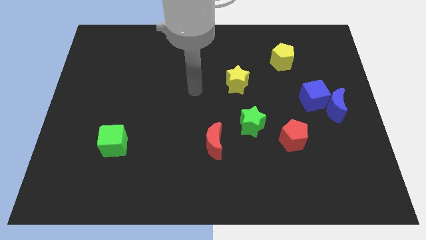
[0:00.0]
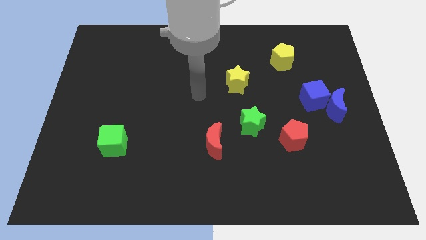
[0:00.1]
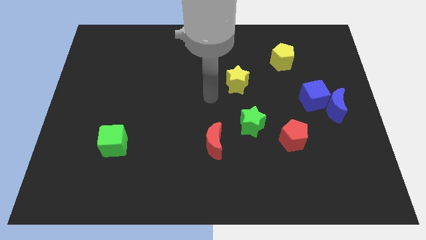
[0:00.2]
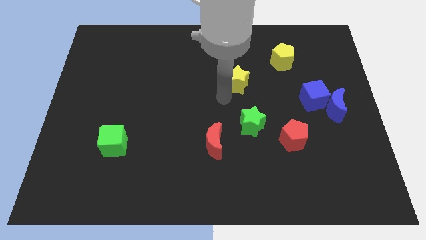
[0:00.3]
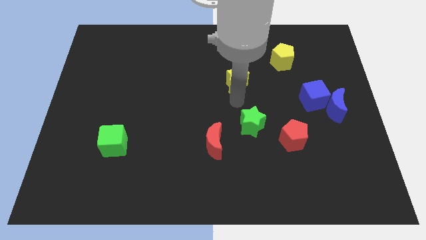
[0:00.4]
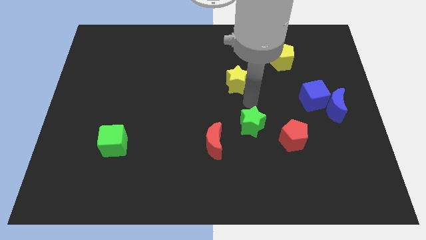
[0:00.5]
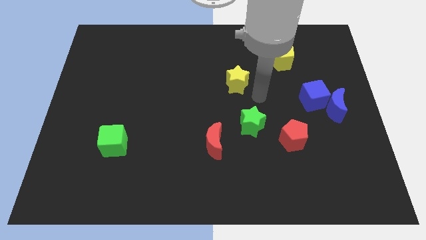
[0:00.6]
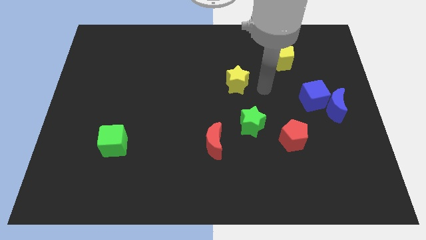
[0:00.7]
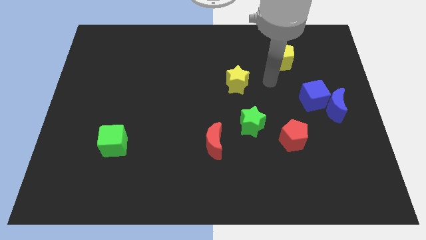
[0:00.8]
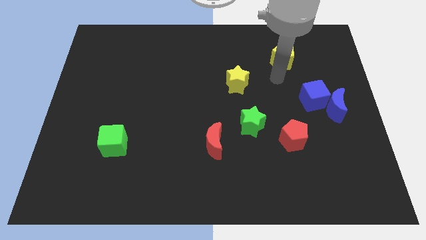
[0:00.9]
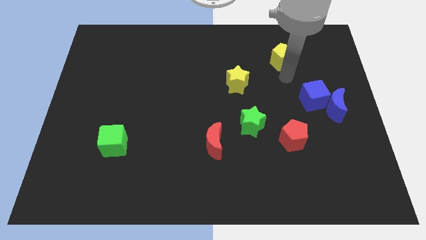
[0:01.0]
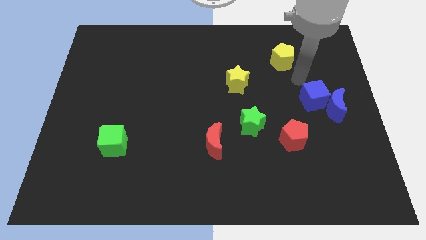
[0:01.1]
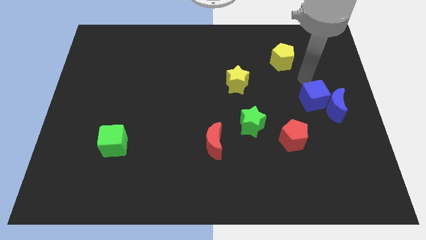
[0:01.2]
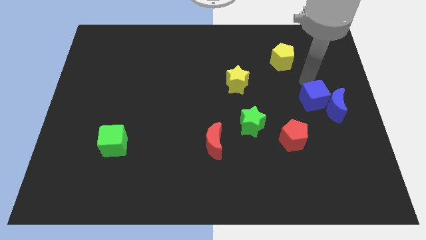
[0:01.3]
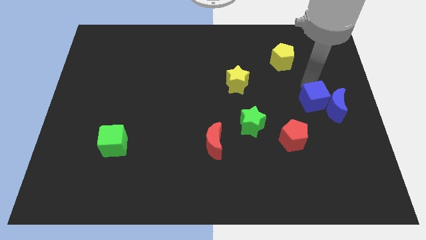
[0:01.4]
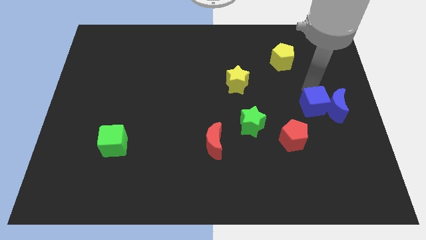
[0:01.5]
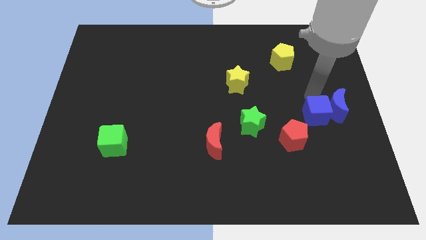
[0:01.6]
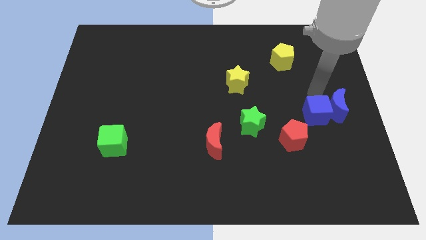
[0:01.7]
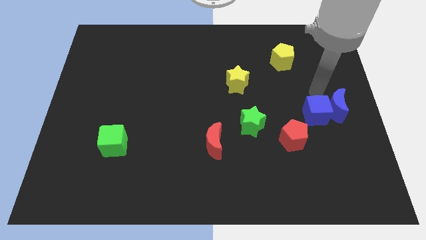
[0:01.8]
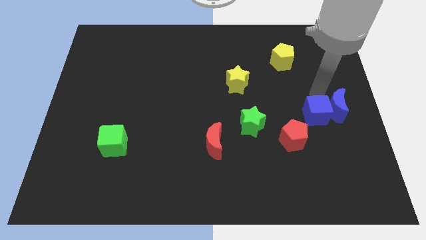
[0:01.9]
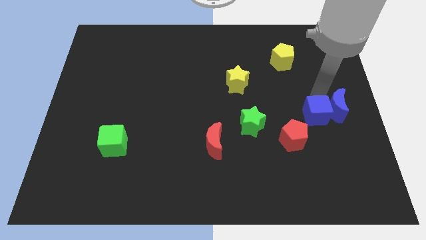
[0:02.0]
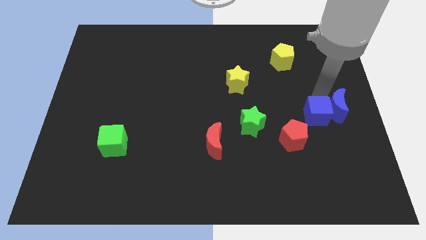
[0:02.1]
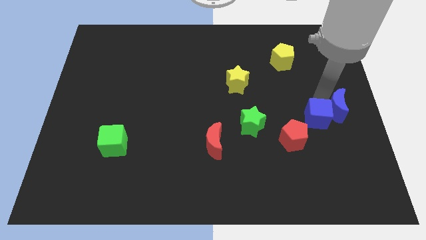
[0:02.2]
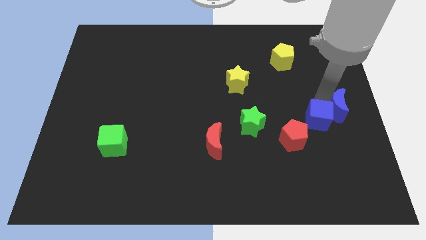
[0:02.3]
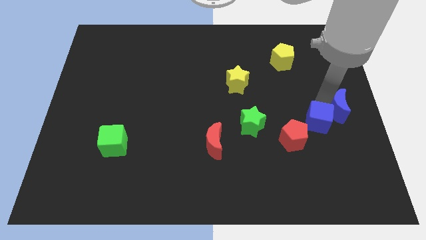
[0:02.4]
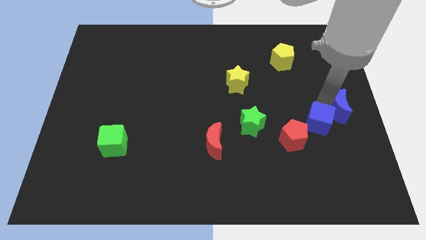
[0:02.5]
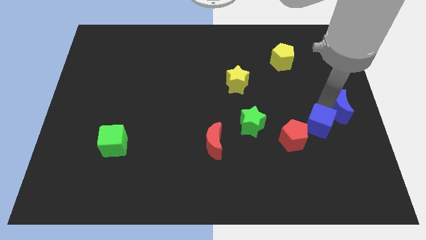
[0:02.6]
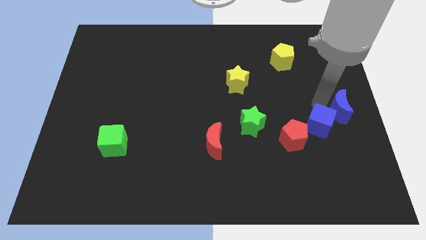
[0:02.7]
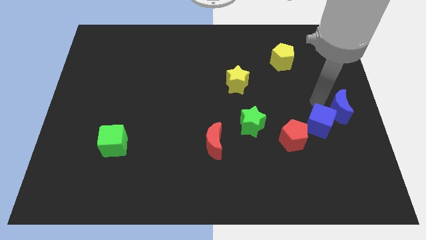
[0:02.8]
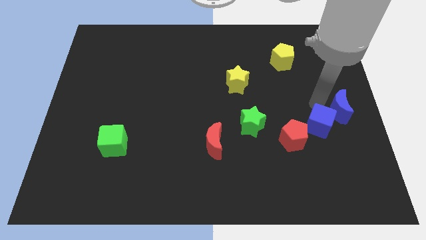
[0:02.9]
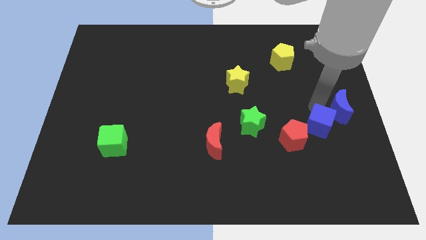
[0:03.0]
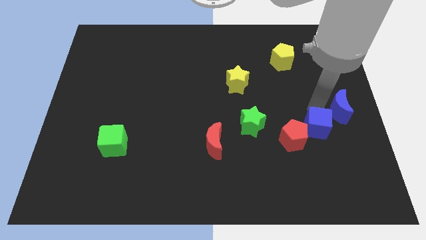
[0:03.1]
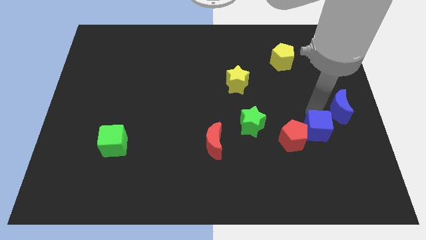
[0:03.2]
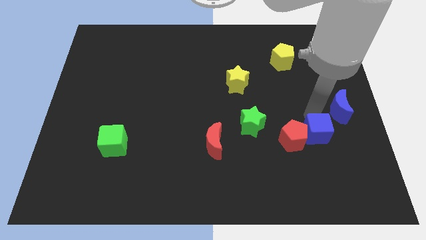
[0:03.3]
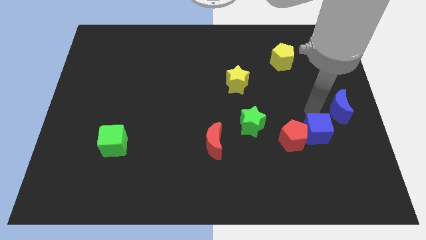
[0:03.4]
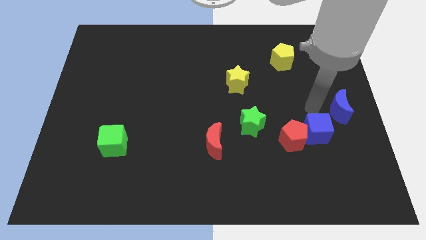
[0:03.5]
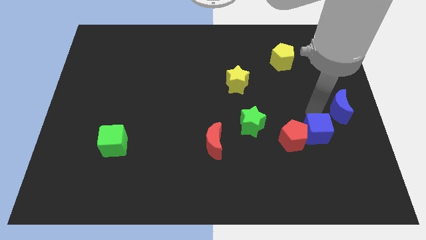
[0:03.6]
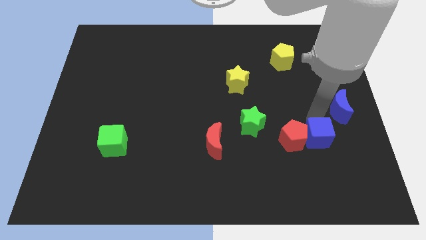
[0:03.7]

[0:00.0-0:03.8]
move the blue cube to the bottom right side of the red pentagon

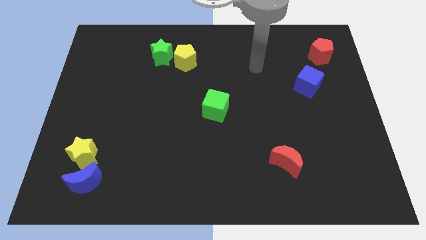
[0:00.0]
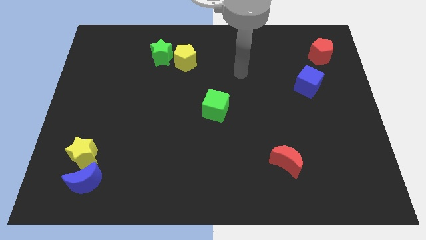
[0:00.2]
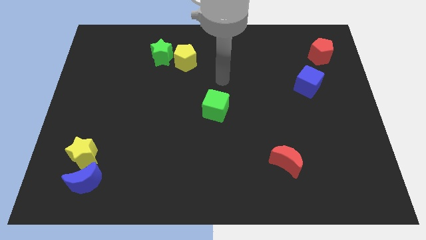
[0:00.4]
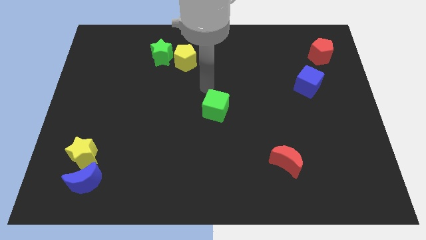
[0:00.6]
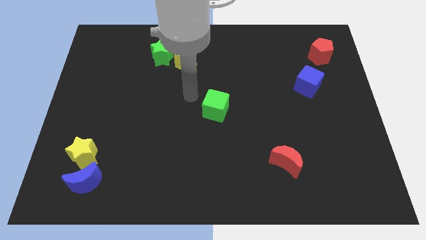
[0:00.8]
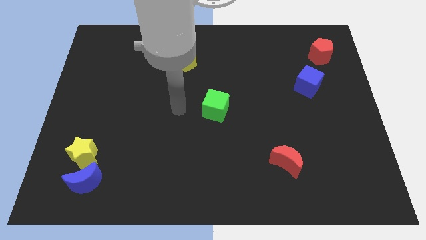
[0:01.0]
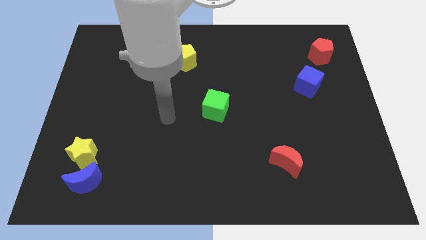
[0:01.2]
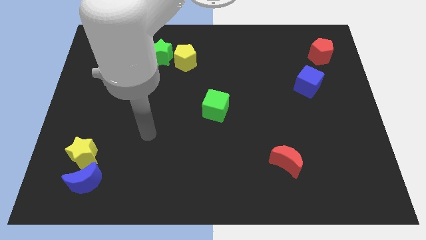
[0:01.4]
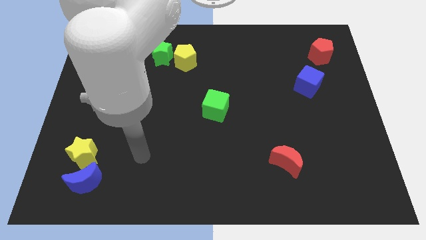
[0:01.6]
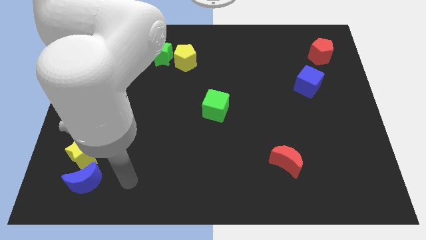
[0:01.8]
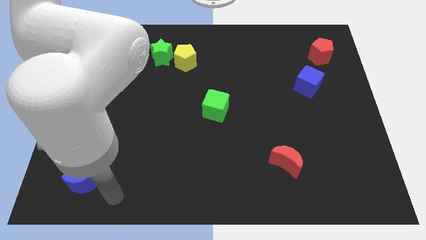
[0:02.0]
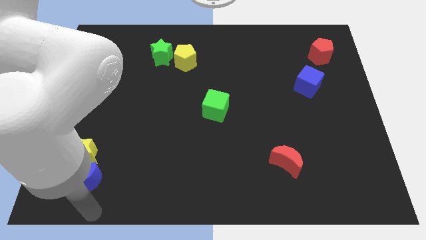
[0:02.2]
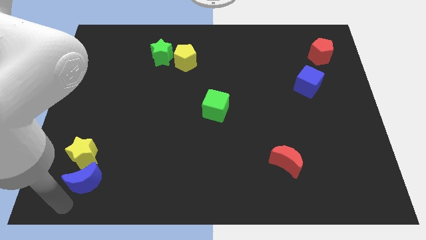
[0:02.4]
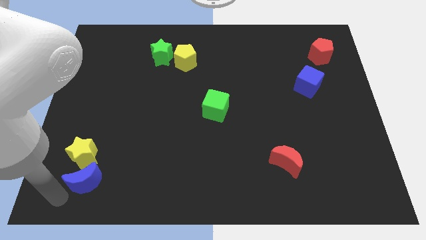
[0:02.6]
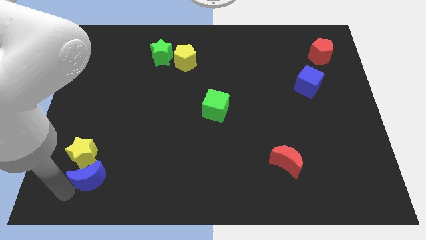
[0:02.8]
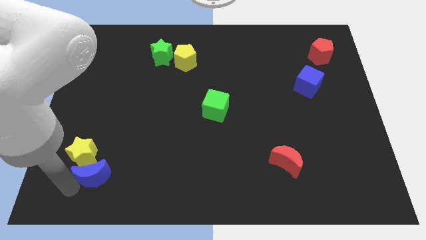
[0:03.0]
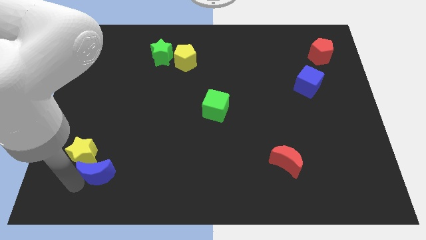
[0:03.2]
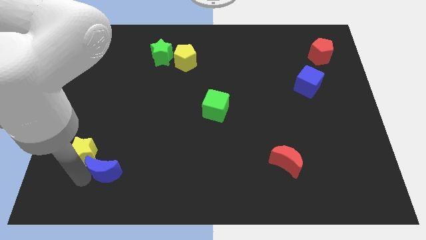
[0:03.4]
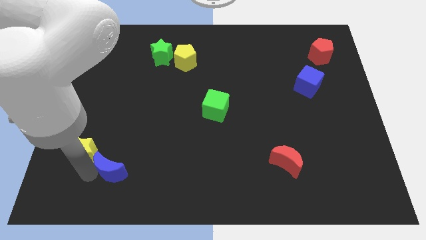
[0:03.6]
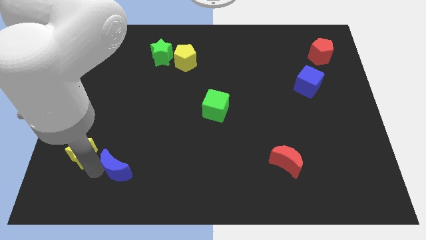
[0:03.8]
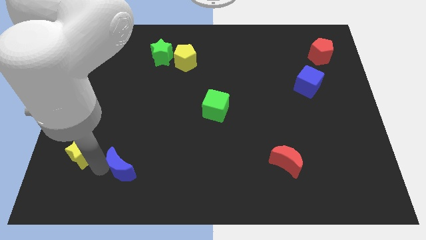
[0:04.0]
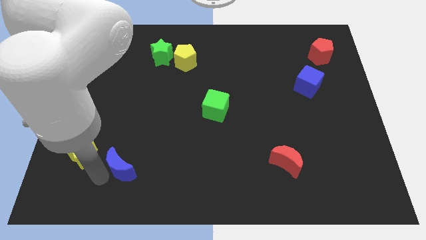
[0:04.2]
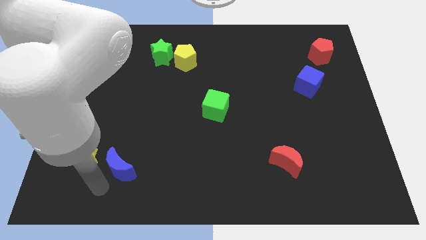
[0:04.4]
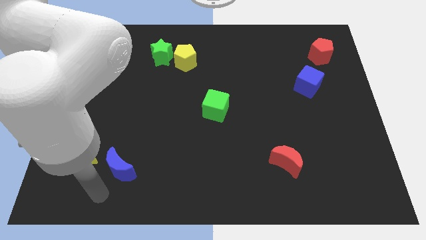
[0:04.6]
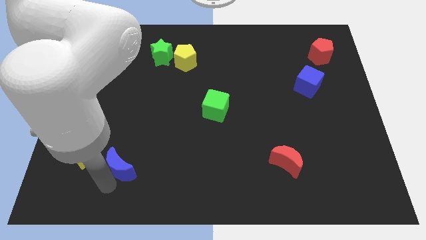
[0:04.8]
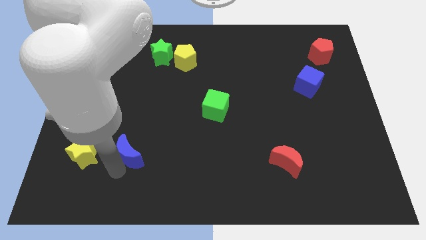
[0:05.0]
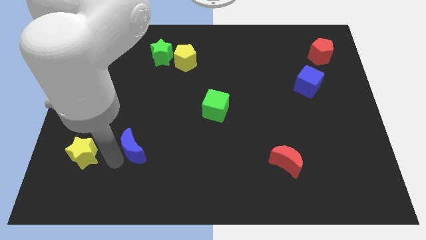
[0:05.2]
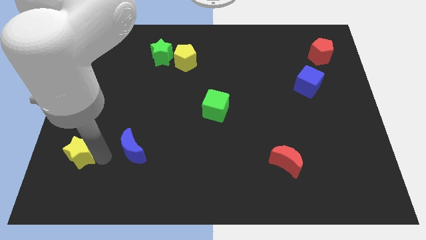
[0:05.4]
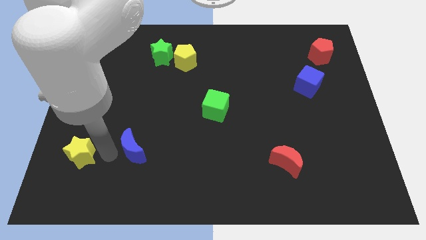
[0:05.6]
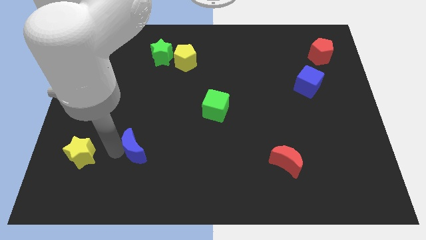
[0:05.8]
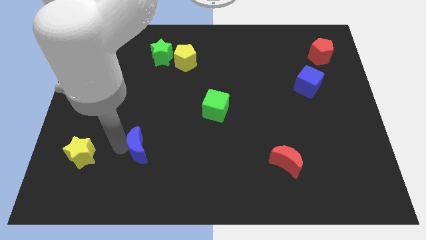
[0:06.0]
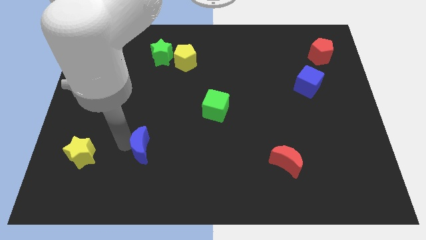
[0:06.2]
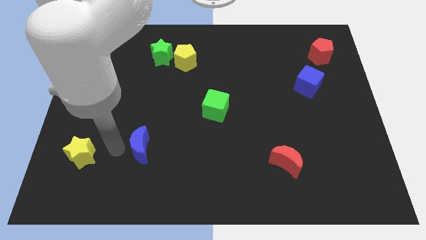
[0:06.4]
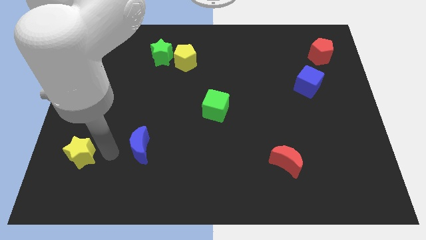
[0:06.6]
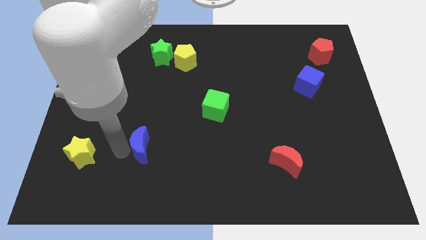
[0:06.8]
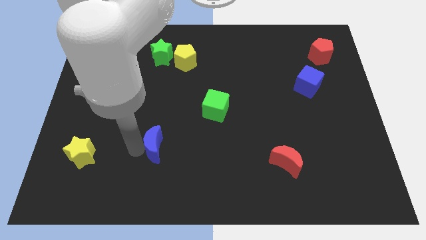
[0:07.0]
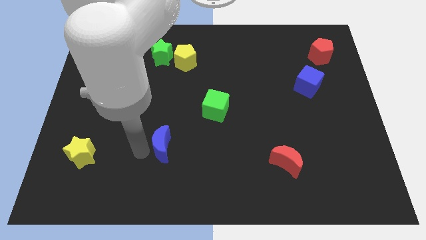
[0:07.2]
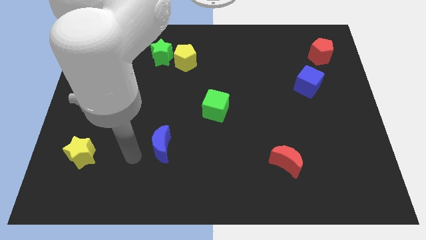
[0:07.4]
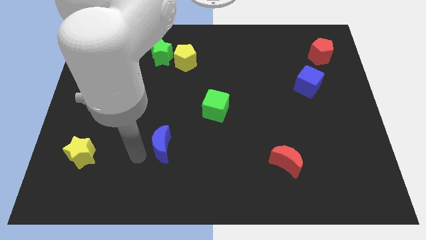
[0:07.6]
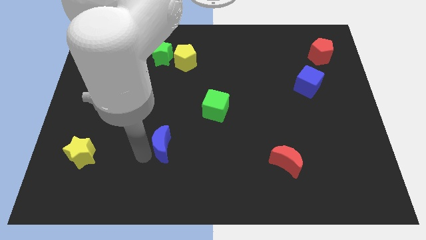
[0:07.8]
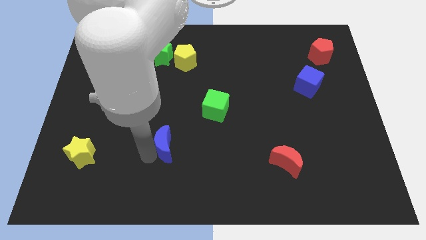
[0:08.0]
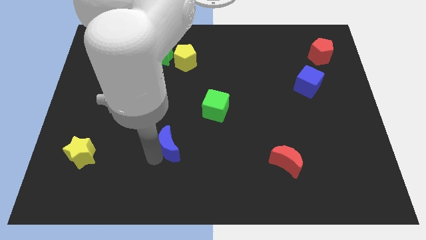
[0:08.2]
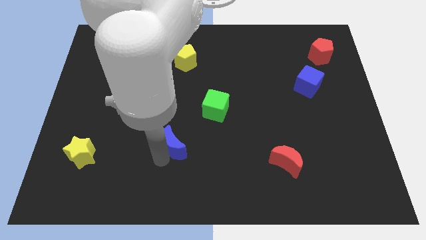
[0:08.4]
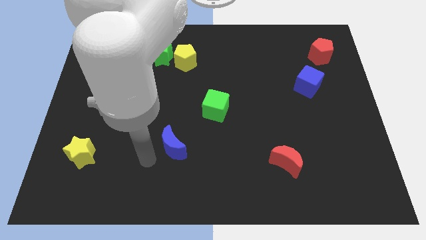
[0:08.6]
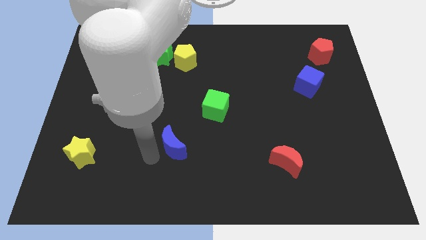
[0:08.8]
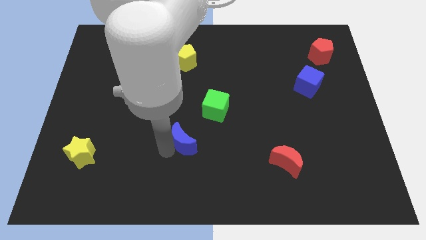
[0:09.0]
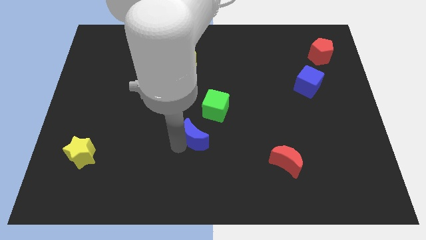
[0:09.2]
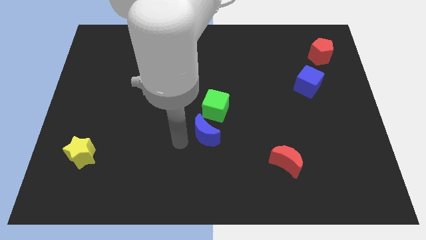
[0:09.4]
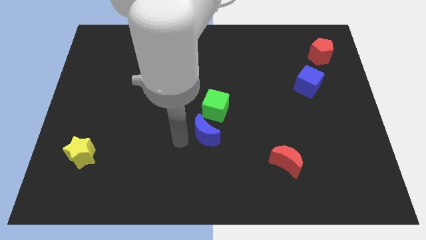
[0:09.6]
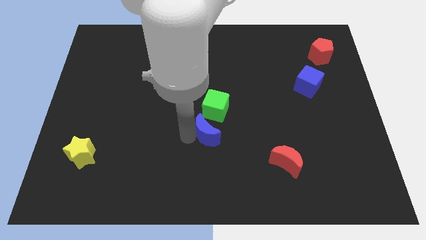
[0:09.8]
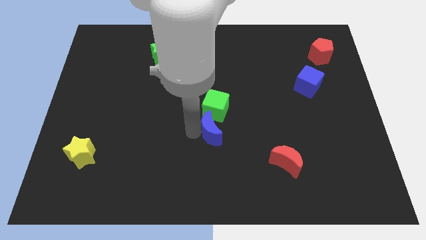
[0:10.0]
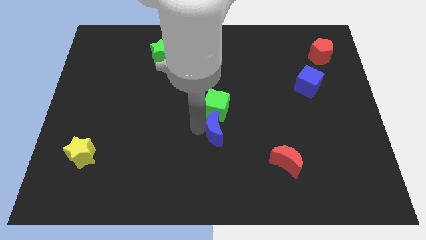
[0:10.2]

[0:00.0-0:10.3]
move the blue moon to the bottom right side of the green cube
